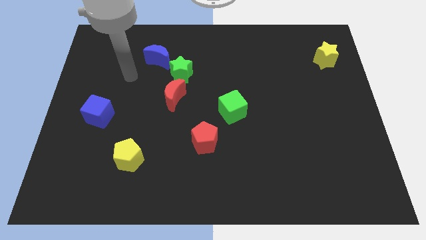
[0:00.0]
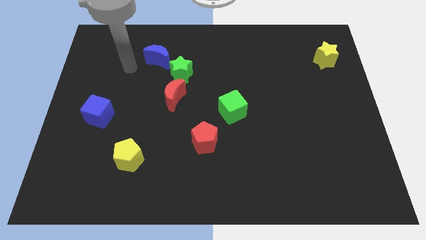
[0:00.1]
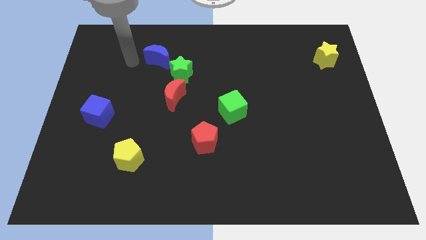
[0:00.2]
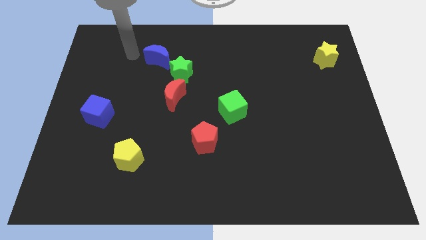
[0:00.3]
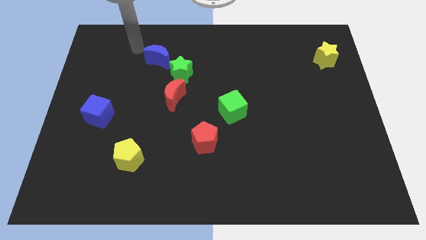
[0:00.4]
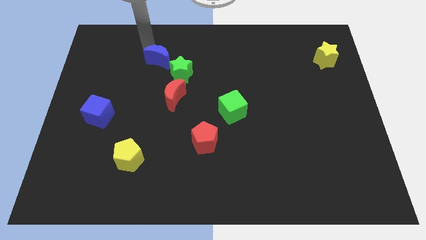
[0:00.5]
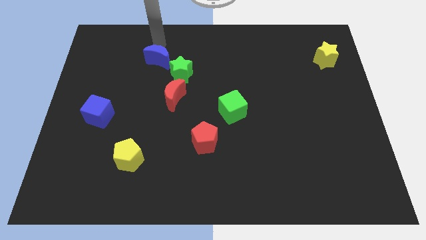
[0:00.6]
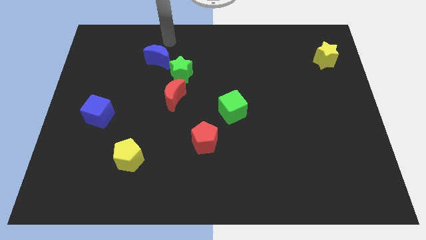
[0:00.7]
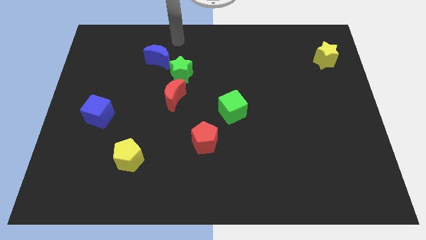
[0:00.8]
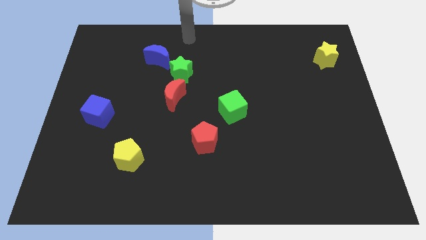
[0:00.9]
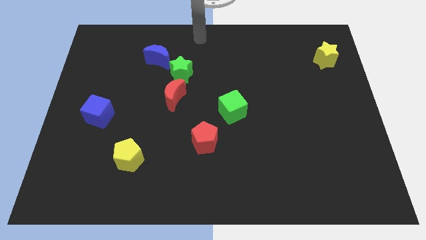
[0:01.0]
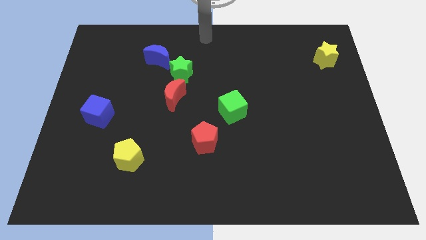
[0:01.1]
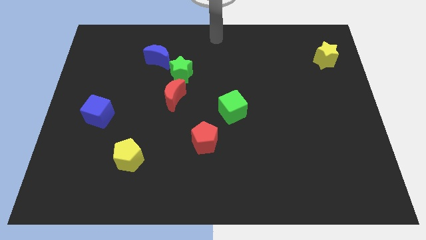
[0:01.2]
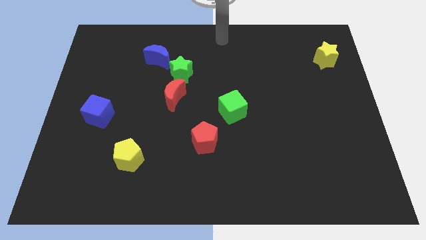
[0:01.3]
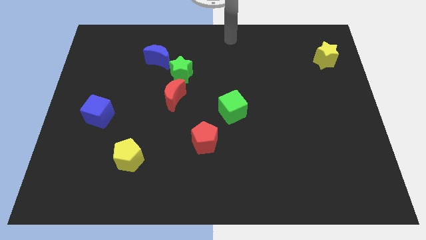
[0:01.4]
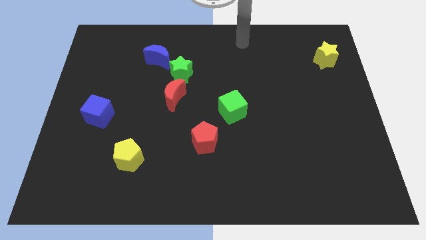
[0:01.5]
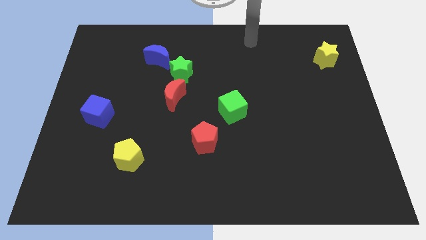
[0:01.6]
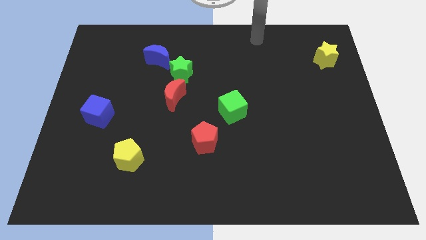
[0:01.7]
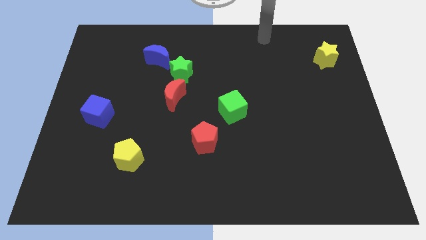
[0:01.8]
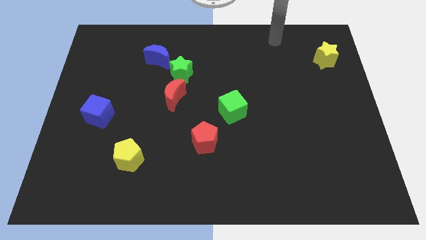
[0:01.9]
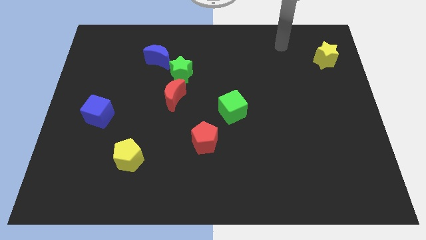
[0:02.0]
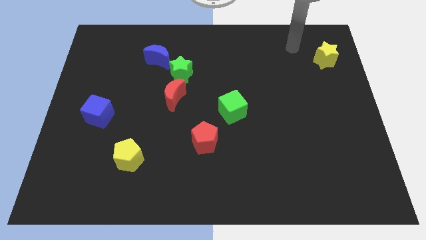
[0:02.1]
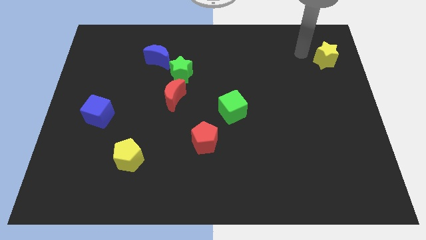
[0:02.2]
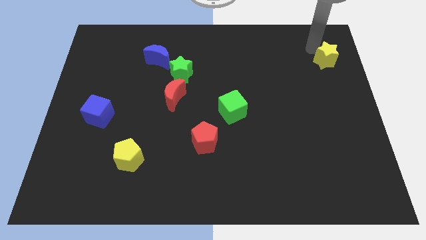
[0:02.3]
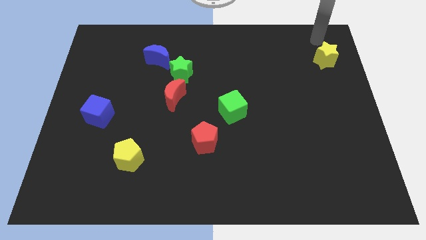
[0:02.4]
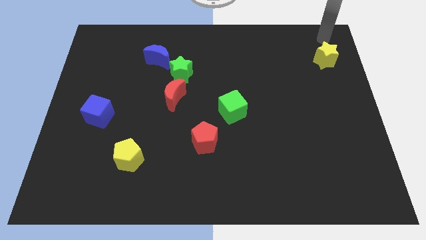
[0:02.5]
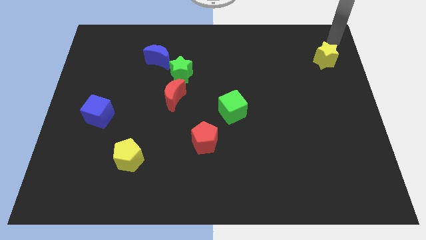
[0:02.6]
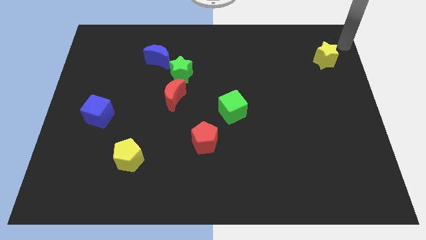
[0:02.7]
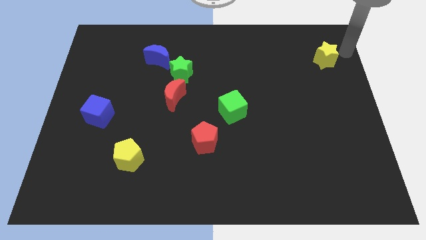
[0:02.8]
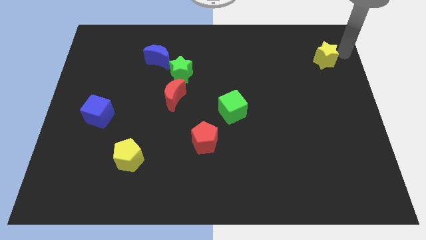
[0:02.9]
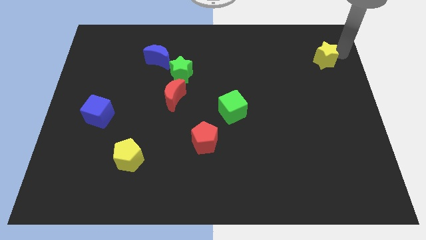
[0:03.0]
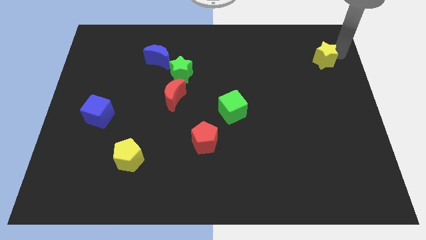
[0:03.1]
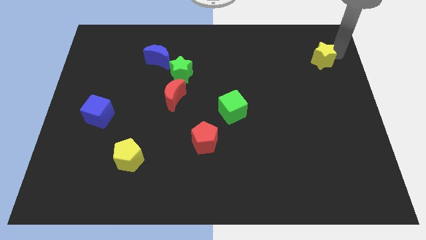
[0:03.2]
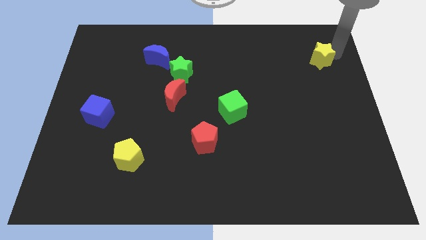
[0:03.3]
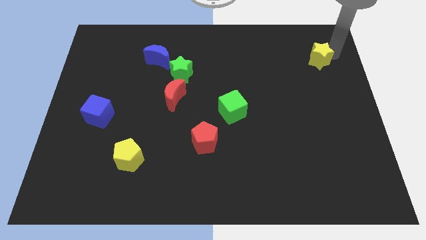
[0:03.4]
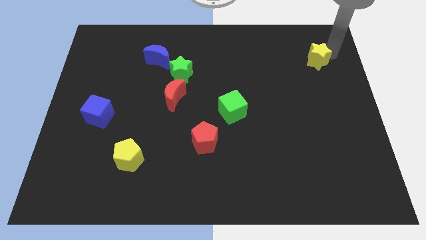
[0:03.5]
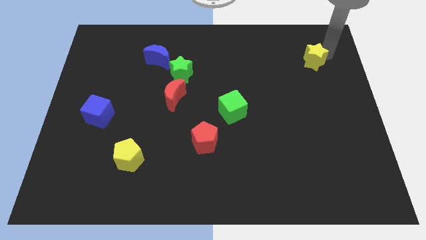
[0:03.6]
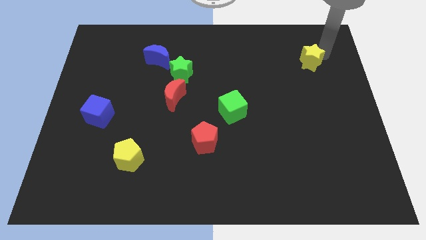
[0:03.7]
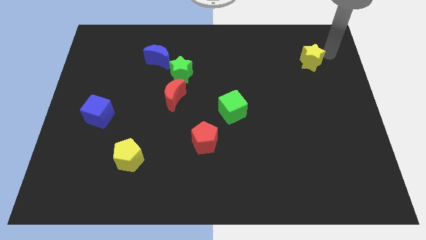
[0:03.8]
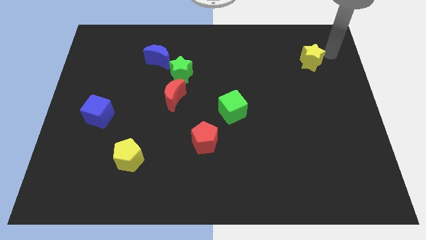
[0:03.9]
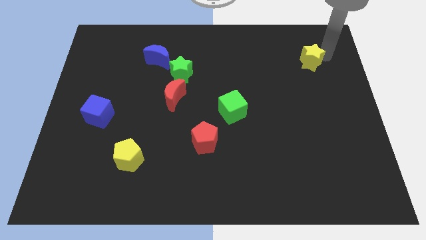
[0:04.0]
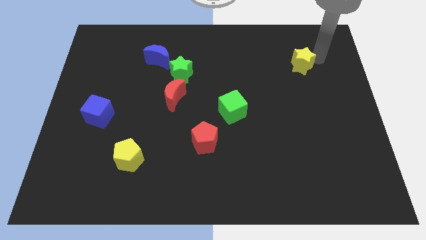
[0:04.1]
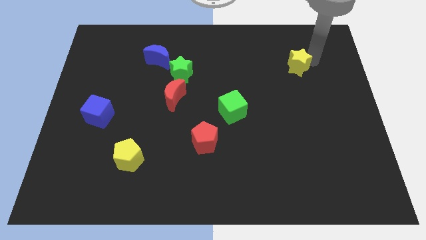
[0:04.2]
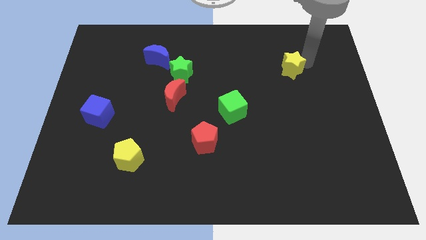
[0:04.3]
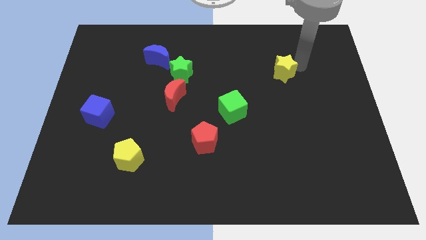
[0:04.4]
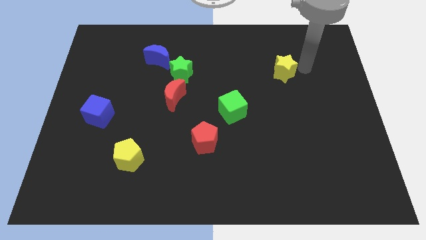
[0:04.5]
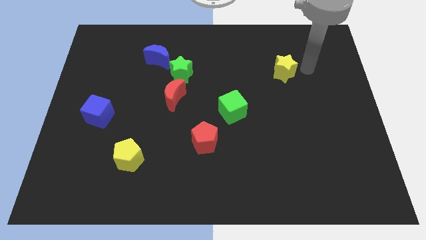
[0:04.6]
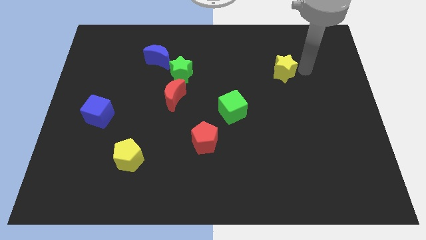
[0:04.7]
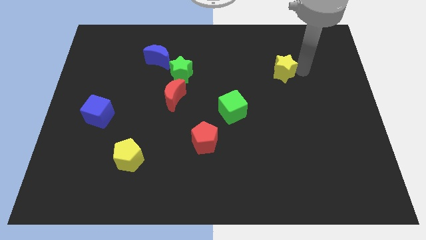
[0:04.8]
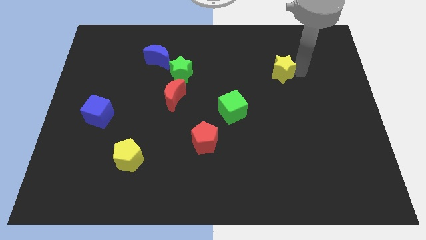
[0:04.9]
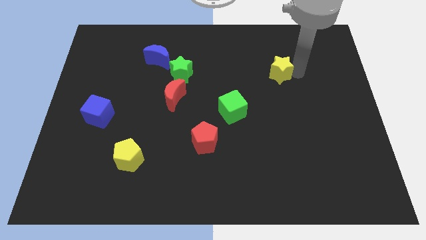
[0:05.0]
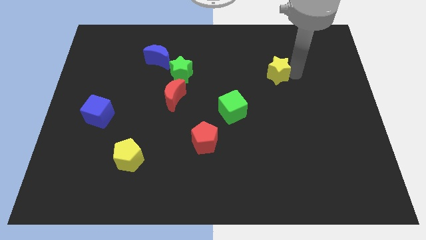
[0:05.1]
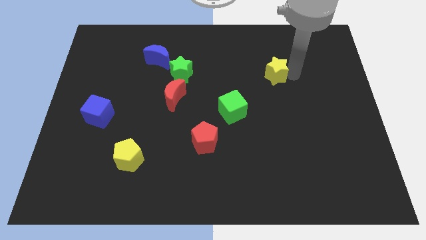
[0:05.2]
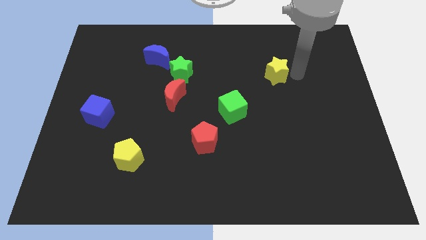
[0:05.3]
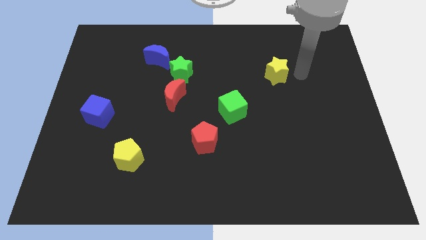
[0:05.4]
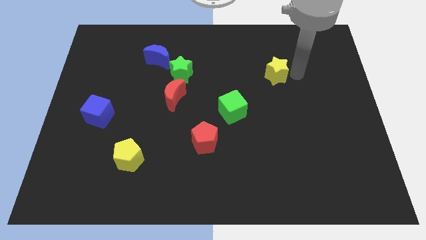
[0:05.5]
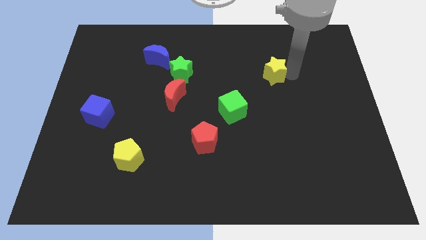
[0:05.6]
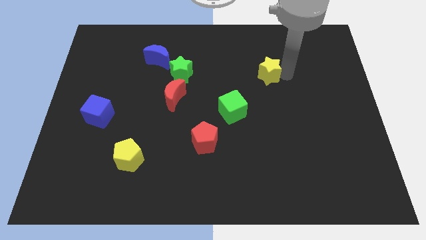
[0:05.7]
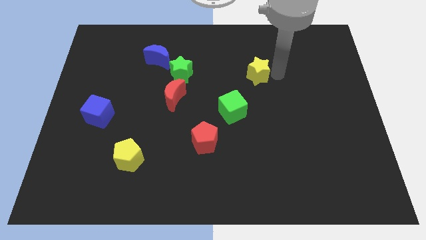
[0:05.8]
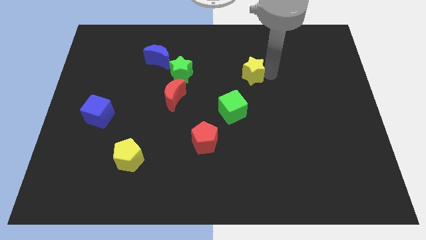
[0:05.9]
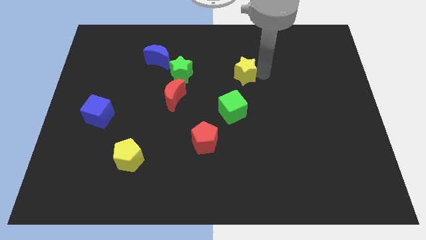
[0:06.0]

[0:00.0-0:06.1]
push the yellow star to the top side of the green cube

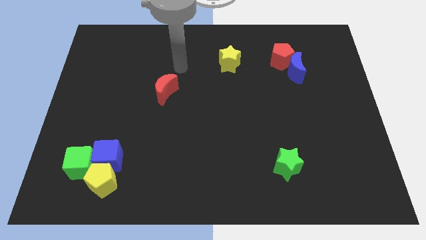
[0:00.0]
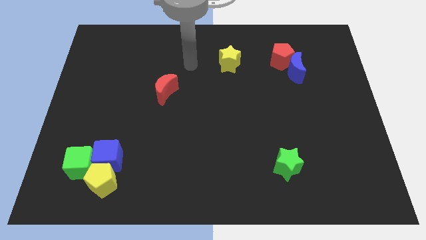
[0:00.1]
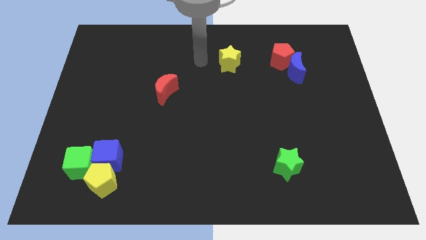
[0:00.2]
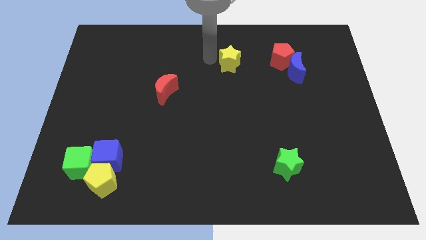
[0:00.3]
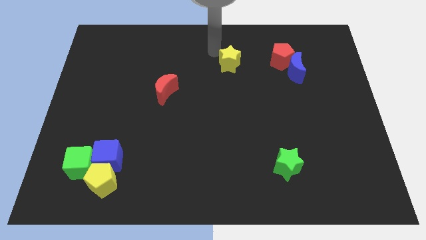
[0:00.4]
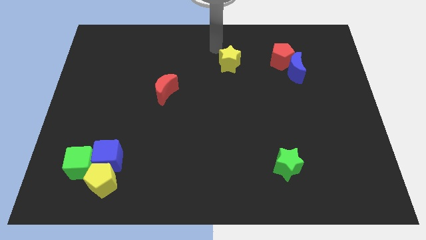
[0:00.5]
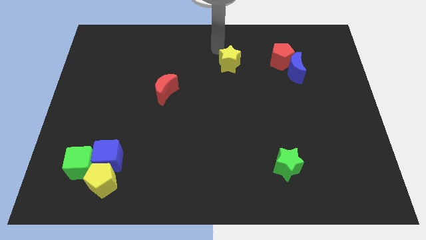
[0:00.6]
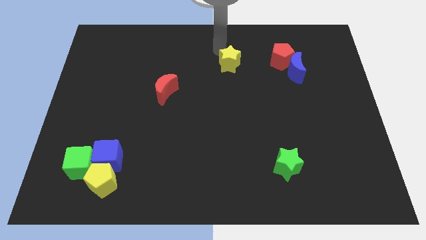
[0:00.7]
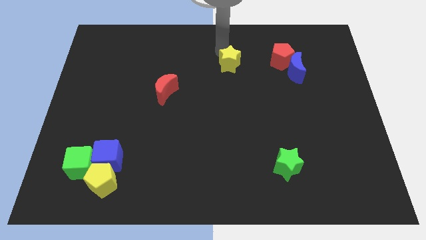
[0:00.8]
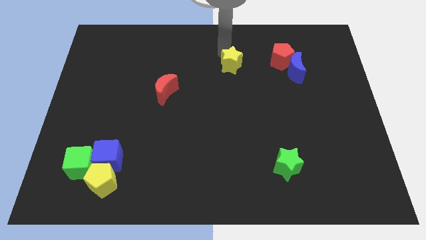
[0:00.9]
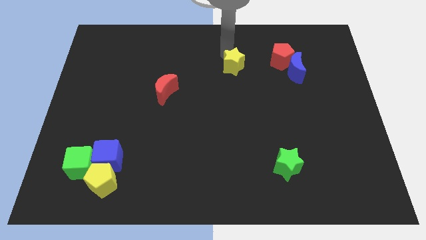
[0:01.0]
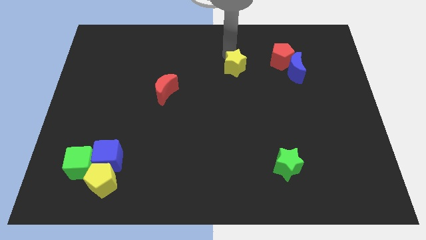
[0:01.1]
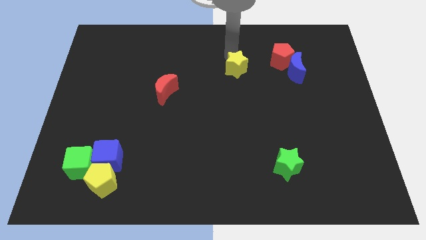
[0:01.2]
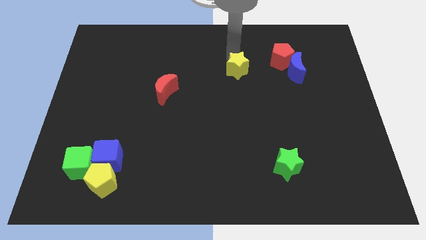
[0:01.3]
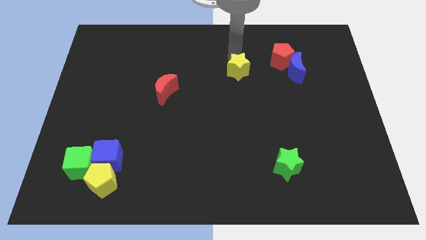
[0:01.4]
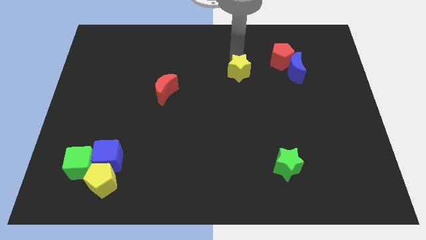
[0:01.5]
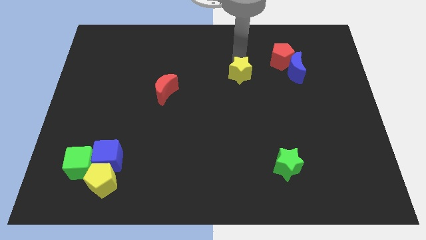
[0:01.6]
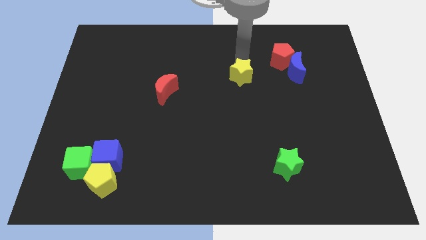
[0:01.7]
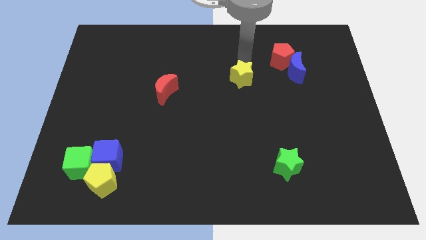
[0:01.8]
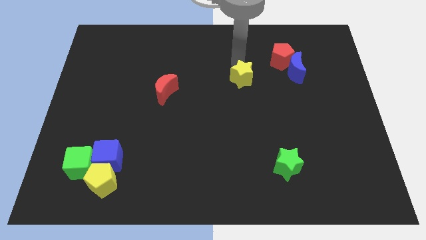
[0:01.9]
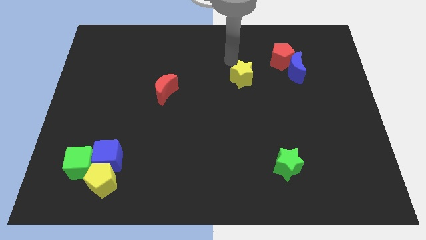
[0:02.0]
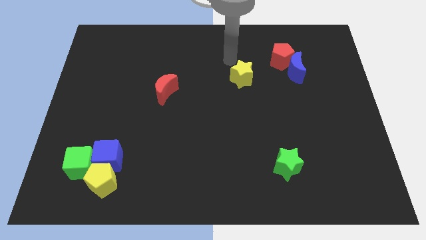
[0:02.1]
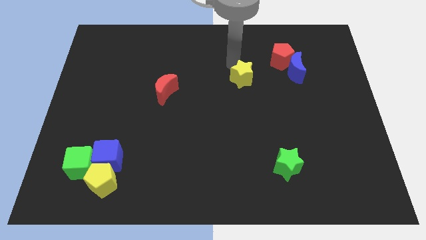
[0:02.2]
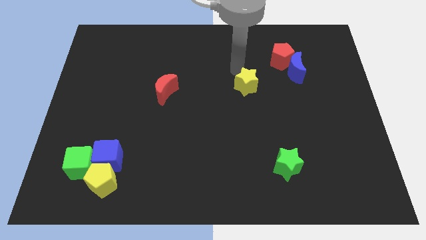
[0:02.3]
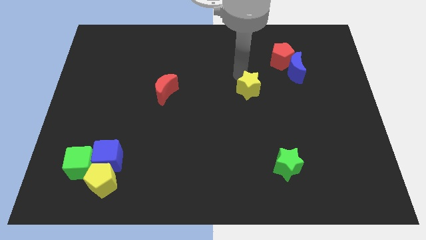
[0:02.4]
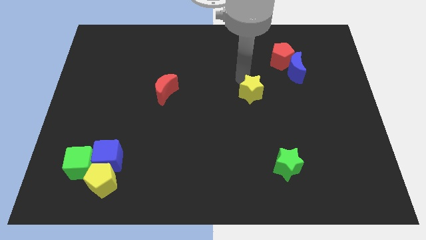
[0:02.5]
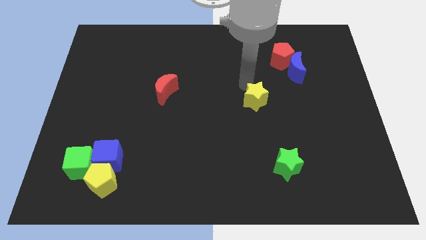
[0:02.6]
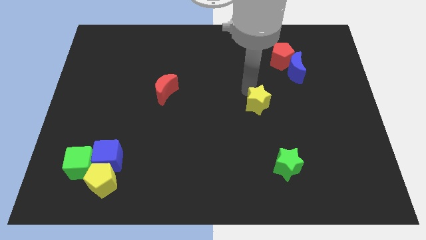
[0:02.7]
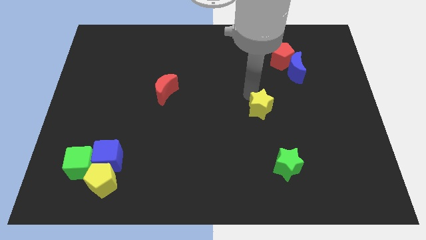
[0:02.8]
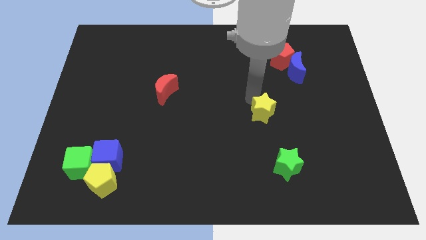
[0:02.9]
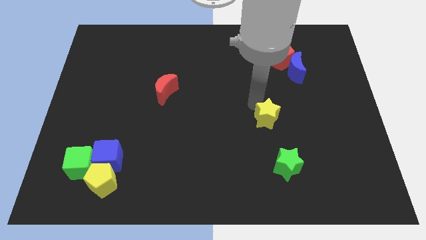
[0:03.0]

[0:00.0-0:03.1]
put the yellow star to the top side of the green star
